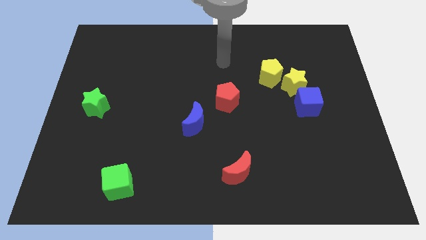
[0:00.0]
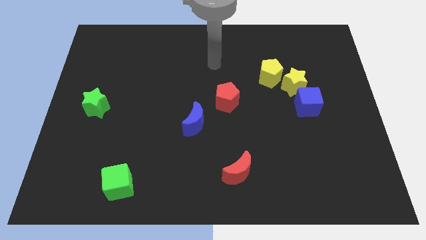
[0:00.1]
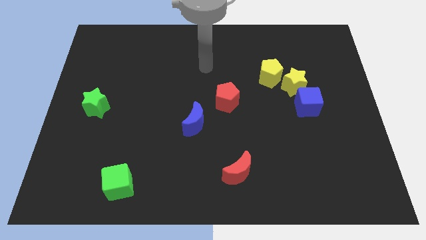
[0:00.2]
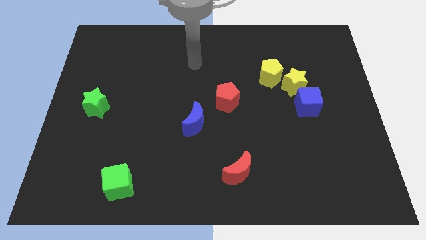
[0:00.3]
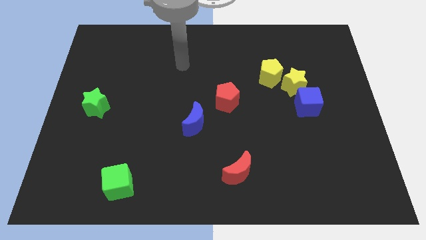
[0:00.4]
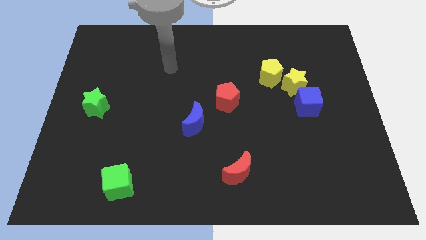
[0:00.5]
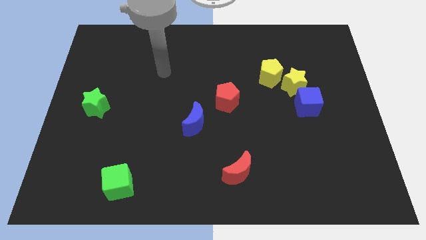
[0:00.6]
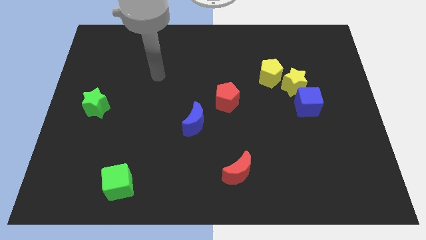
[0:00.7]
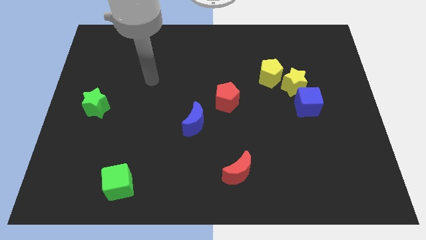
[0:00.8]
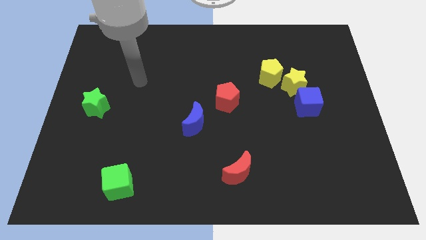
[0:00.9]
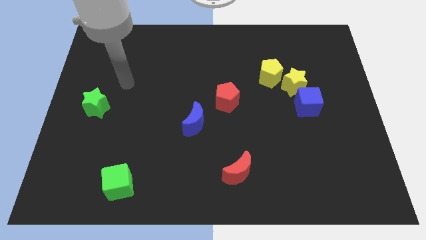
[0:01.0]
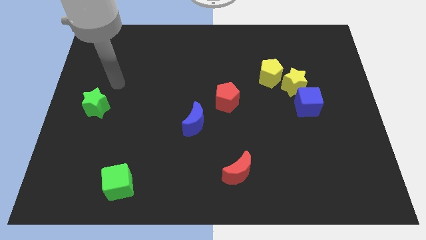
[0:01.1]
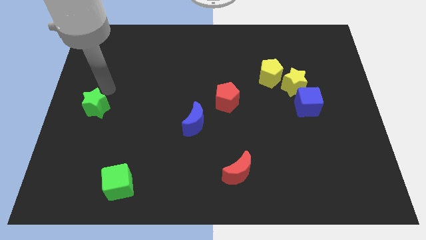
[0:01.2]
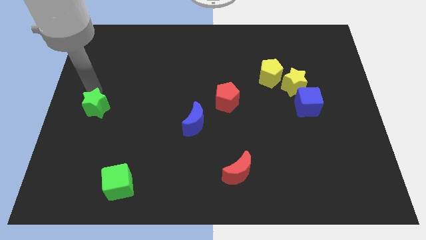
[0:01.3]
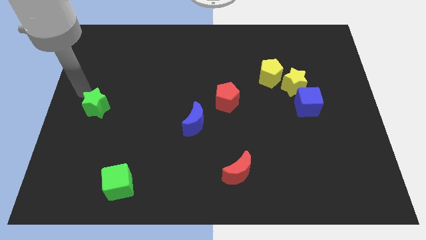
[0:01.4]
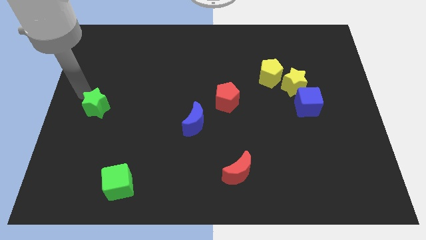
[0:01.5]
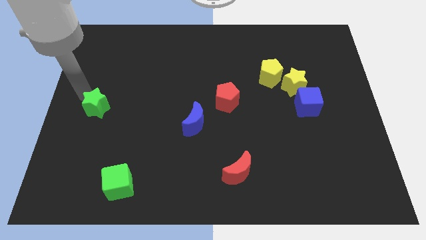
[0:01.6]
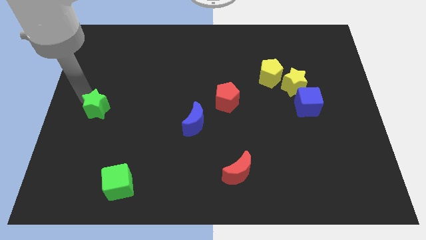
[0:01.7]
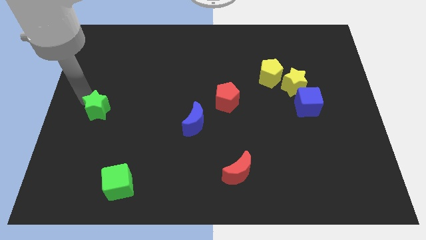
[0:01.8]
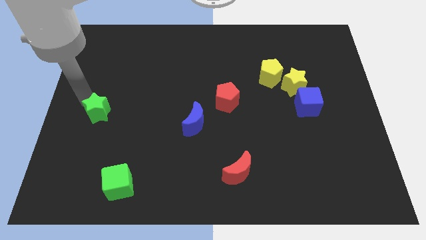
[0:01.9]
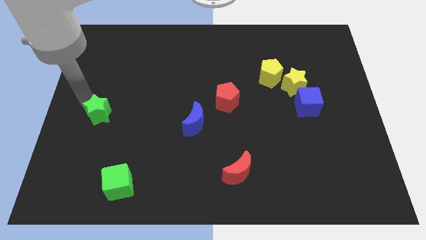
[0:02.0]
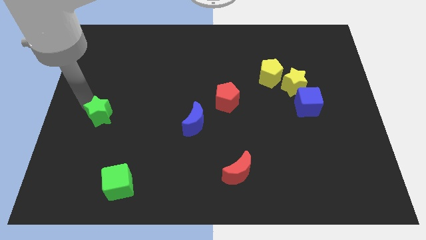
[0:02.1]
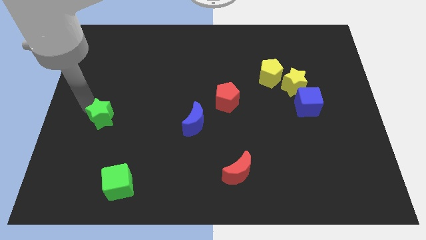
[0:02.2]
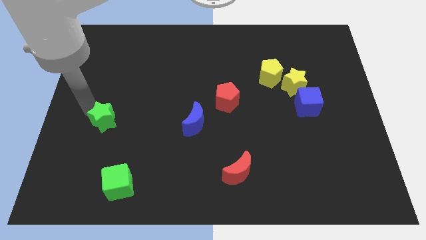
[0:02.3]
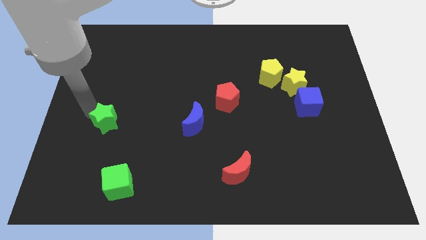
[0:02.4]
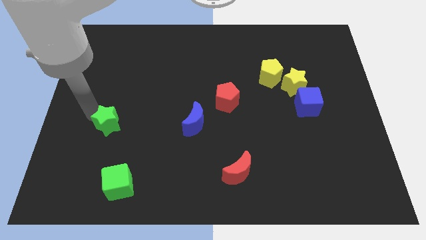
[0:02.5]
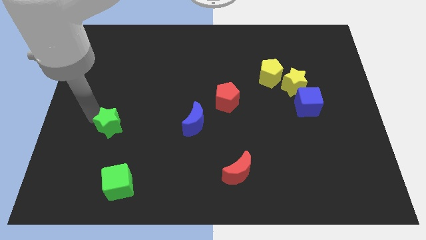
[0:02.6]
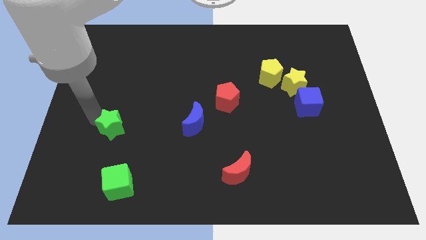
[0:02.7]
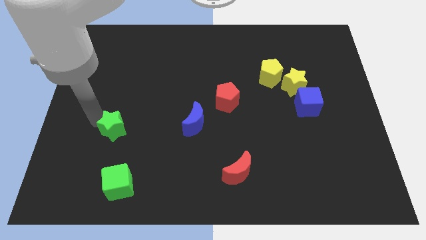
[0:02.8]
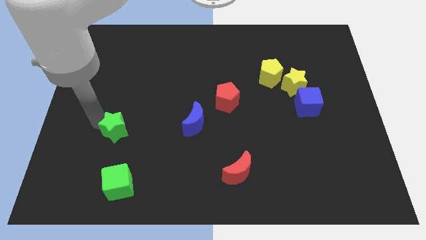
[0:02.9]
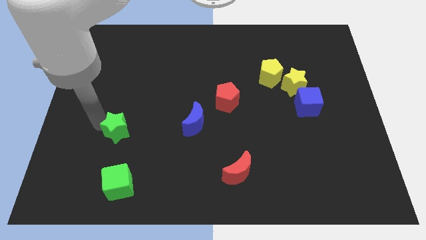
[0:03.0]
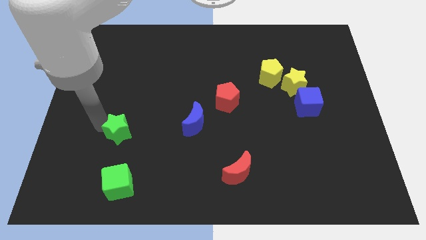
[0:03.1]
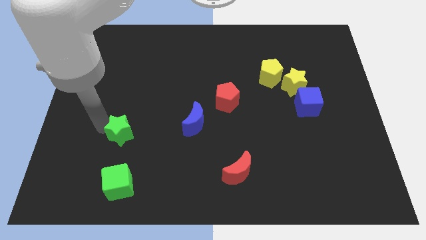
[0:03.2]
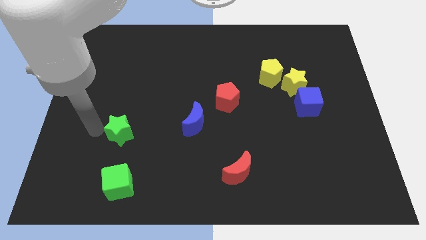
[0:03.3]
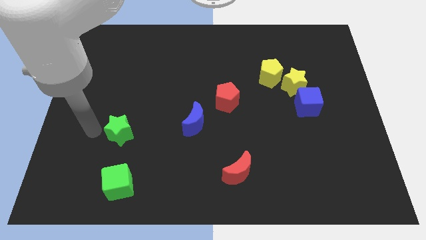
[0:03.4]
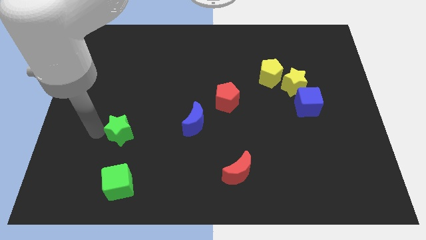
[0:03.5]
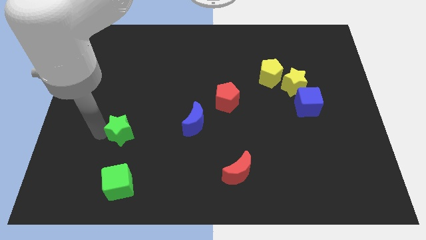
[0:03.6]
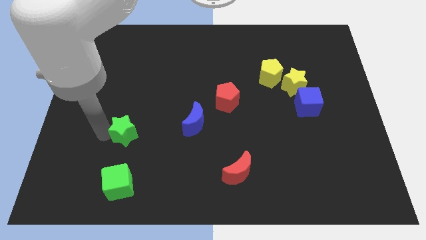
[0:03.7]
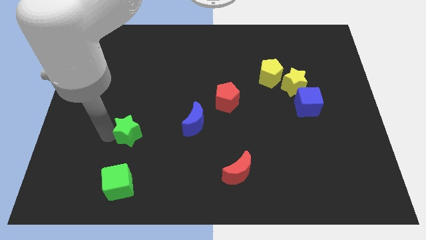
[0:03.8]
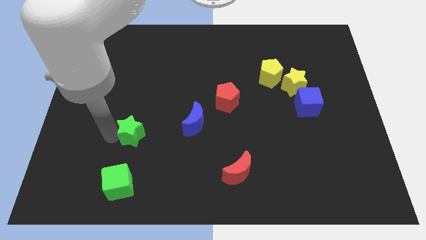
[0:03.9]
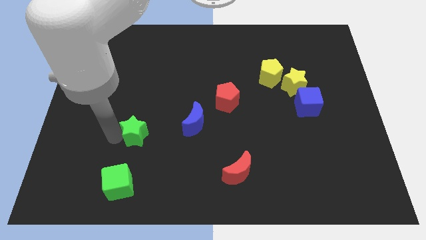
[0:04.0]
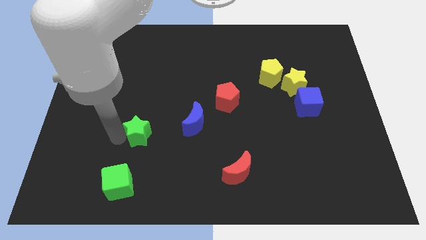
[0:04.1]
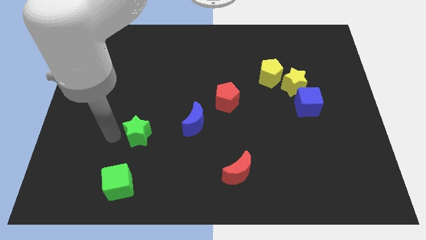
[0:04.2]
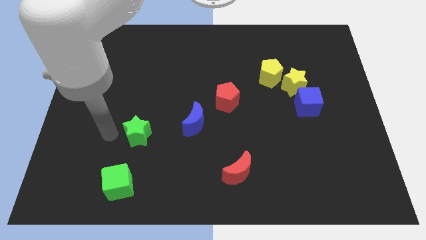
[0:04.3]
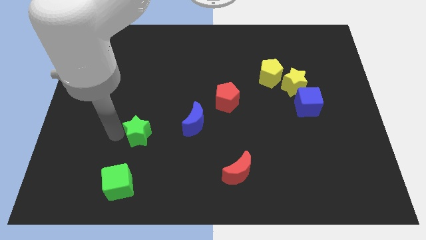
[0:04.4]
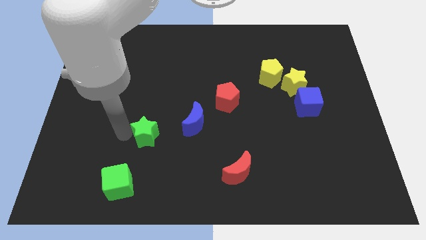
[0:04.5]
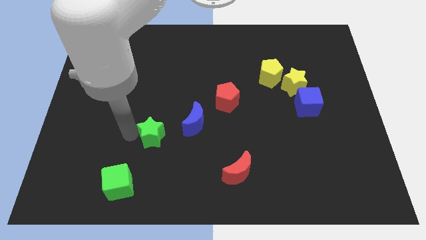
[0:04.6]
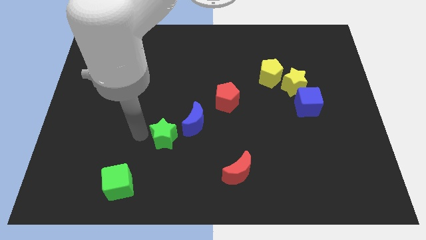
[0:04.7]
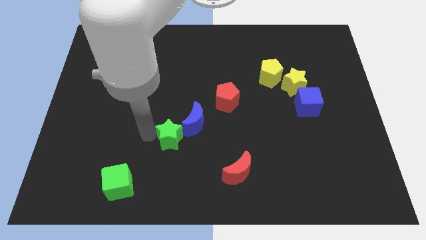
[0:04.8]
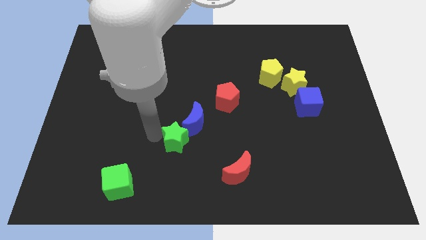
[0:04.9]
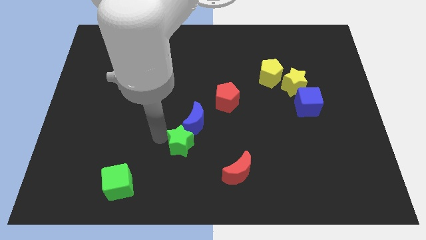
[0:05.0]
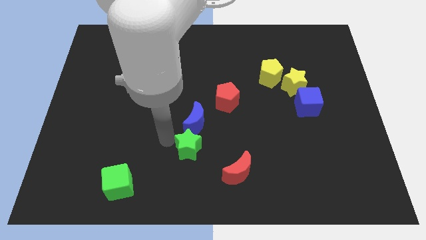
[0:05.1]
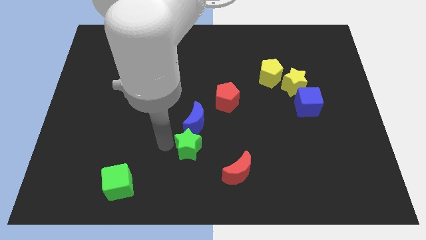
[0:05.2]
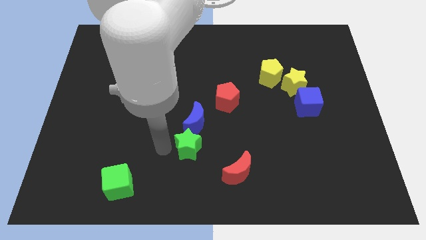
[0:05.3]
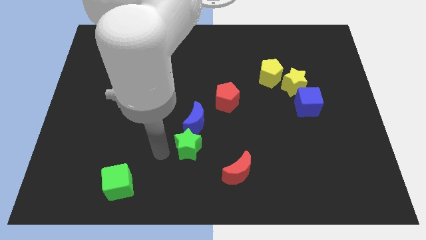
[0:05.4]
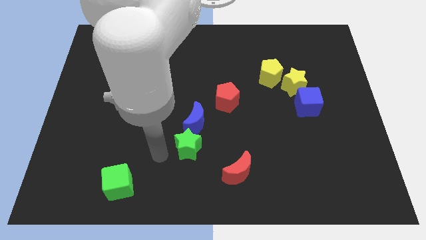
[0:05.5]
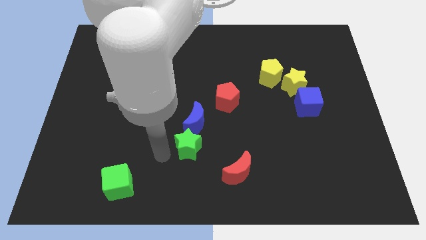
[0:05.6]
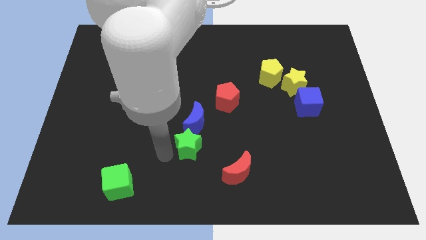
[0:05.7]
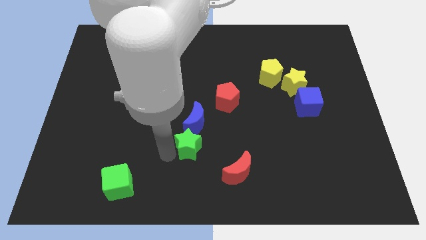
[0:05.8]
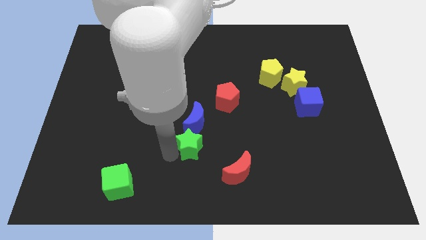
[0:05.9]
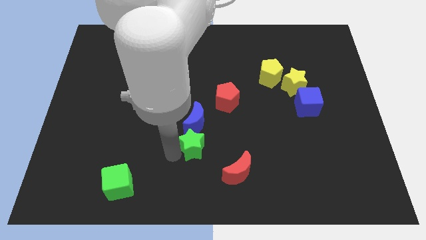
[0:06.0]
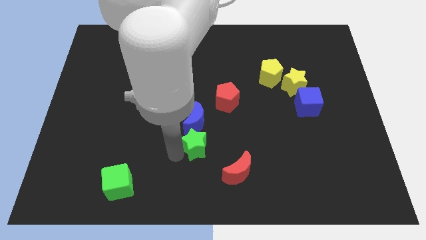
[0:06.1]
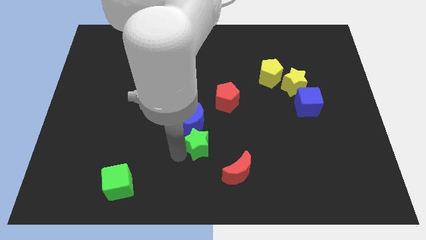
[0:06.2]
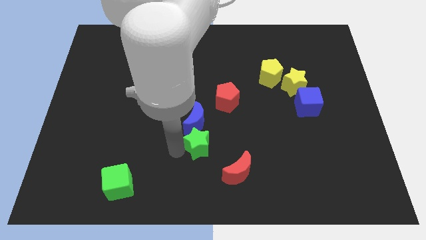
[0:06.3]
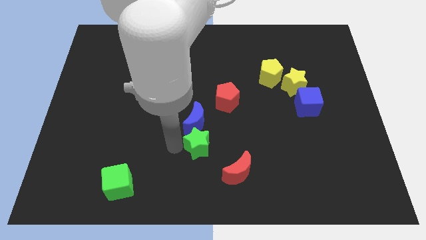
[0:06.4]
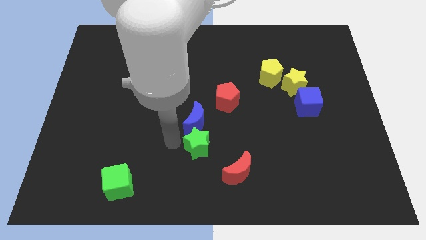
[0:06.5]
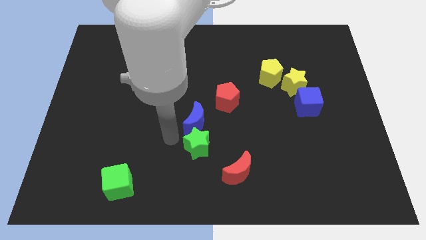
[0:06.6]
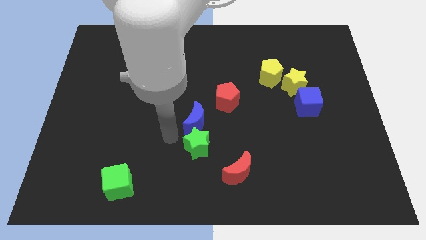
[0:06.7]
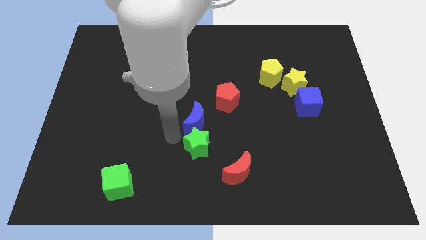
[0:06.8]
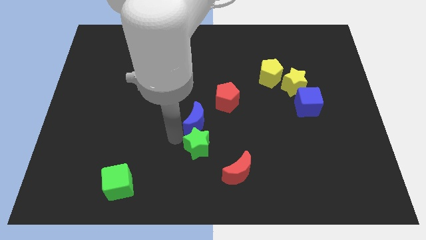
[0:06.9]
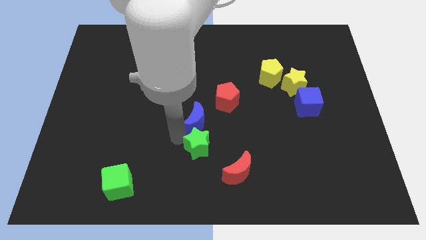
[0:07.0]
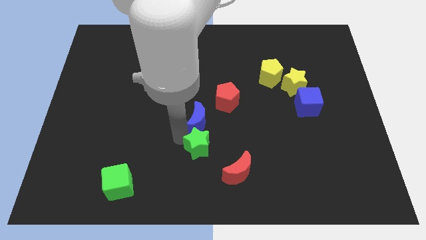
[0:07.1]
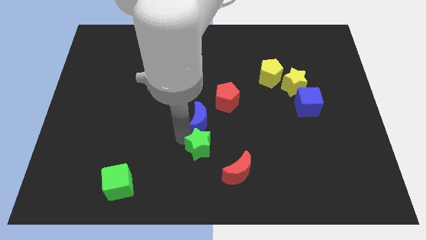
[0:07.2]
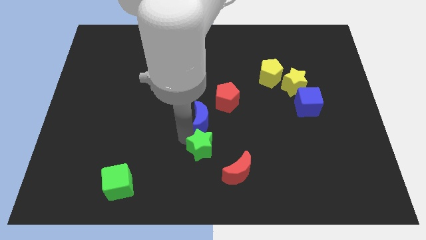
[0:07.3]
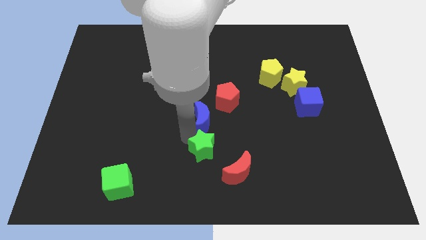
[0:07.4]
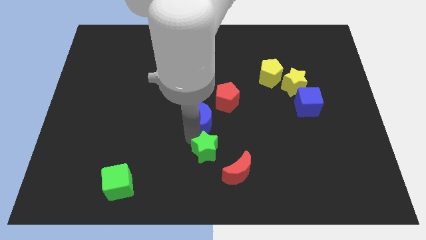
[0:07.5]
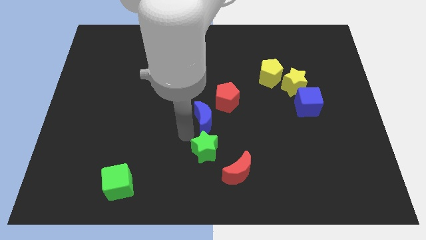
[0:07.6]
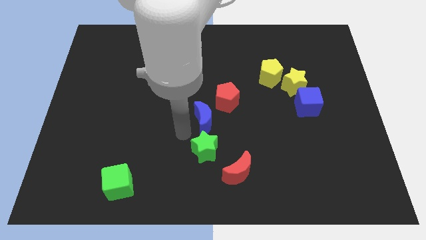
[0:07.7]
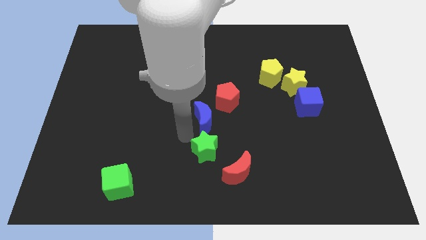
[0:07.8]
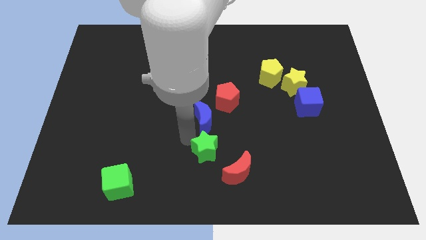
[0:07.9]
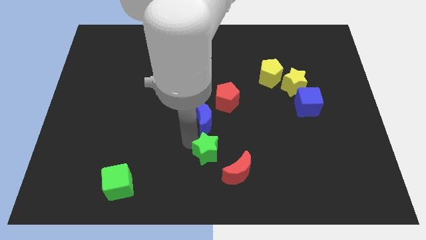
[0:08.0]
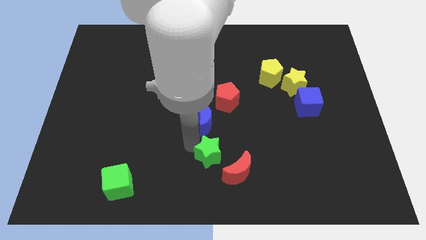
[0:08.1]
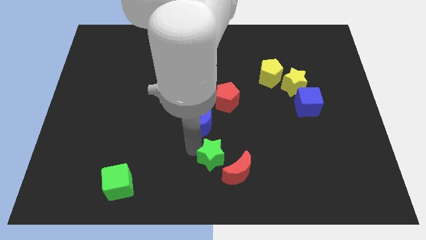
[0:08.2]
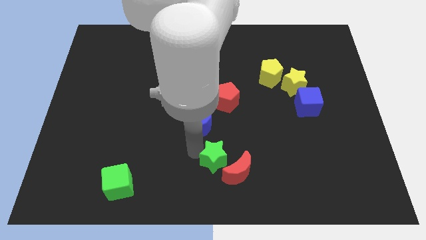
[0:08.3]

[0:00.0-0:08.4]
move the green star next to the red moon
